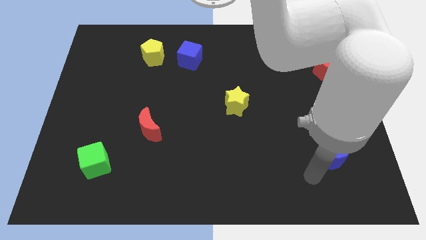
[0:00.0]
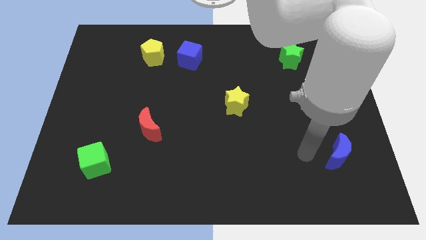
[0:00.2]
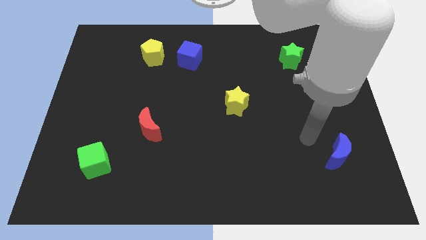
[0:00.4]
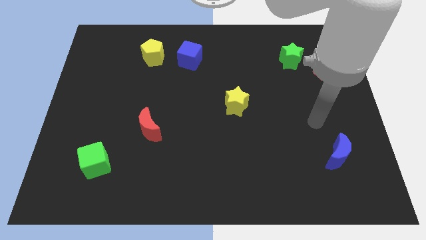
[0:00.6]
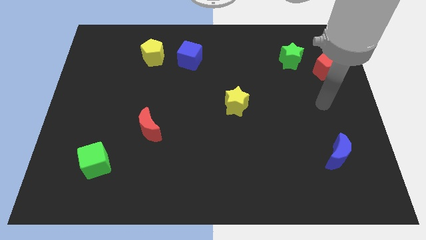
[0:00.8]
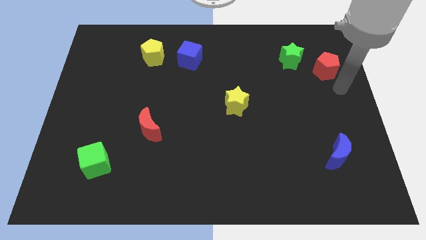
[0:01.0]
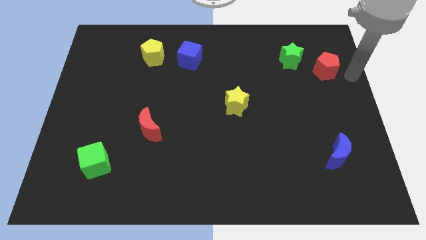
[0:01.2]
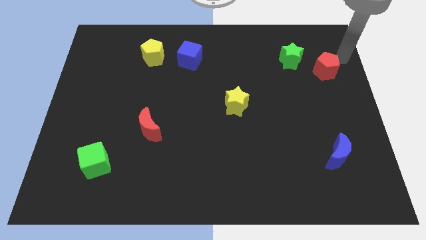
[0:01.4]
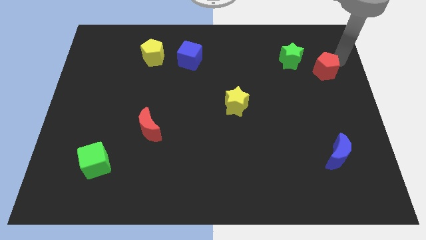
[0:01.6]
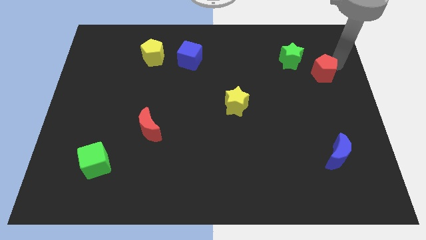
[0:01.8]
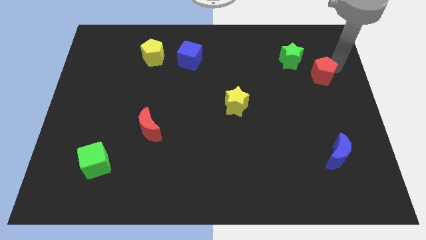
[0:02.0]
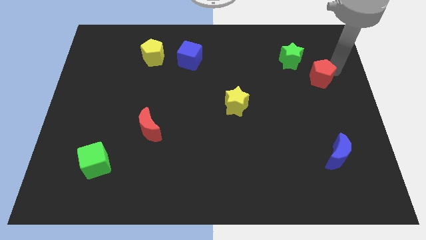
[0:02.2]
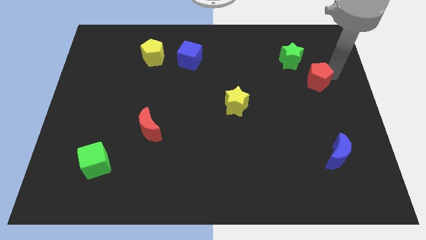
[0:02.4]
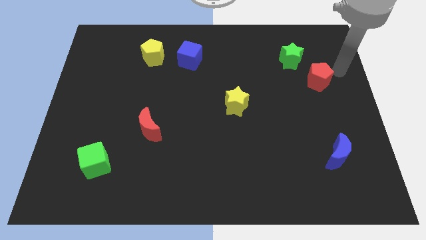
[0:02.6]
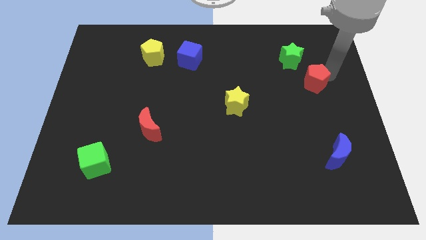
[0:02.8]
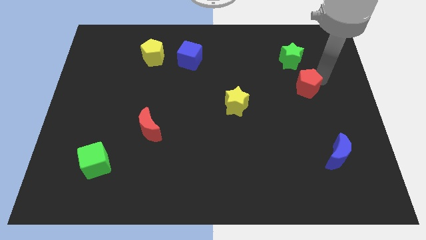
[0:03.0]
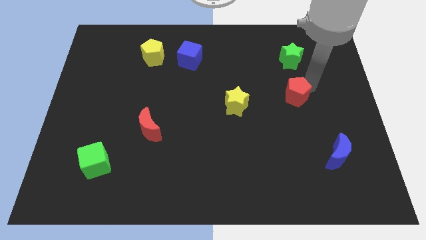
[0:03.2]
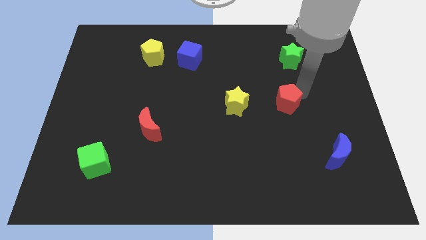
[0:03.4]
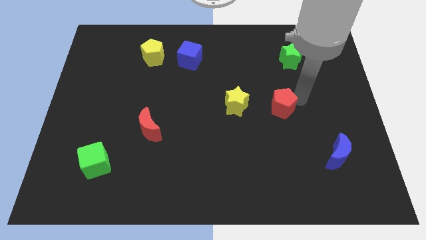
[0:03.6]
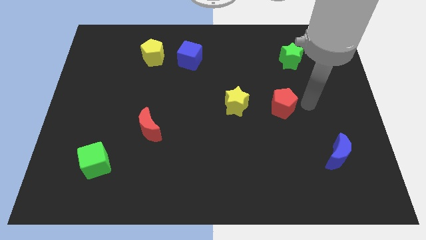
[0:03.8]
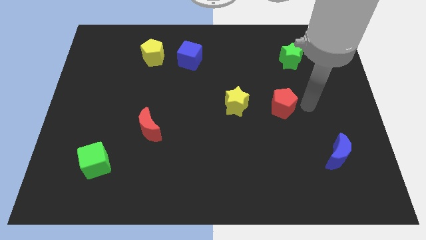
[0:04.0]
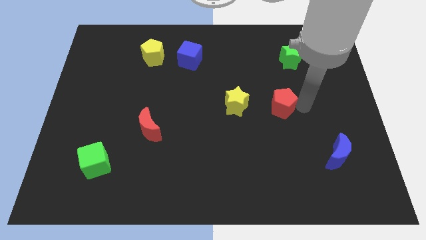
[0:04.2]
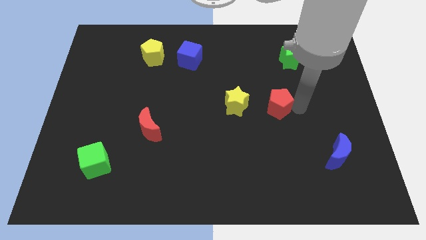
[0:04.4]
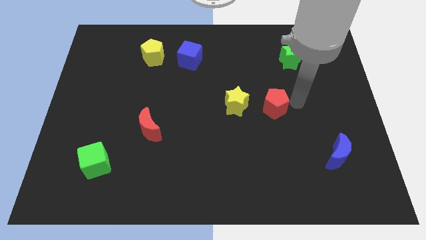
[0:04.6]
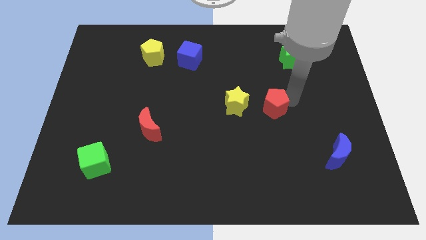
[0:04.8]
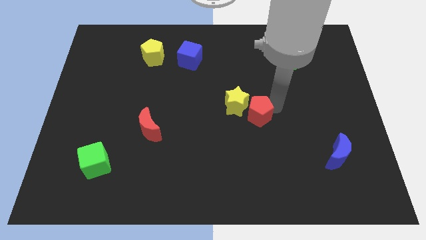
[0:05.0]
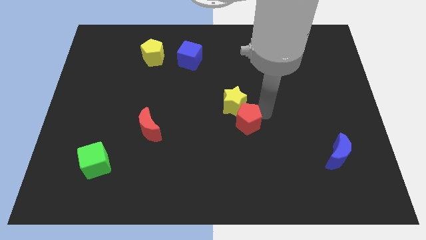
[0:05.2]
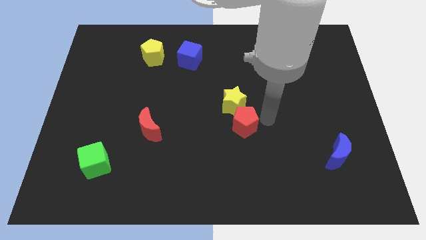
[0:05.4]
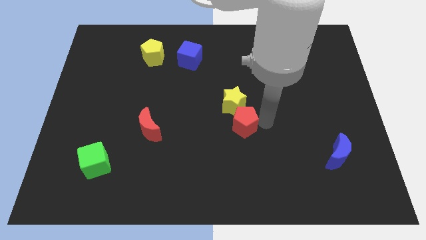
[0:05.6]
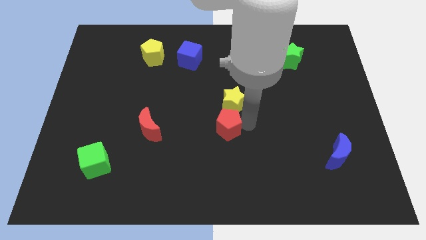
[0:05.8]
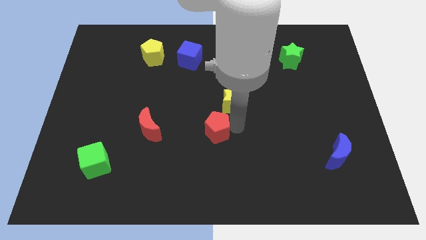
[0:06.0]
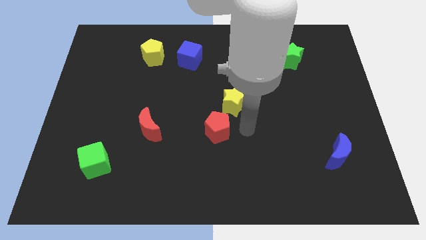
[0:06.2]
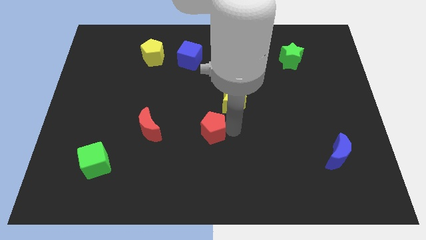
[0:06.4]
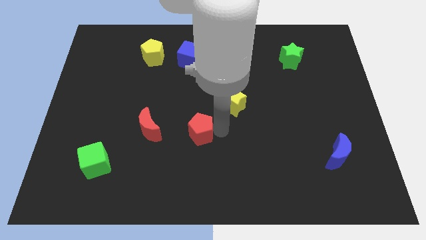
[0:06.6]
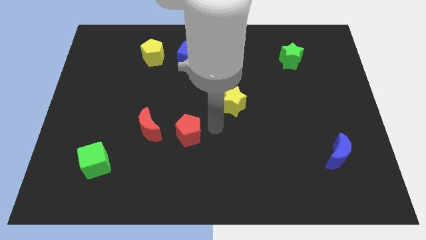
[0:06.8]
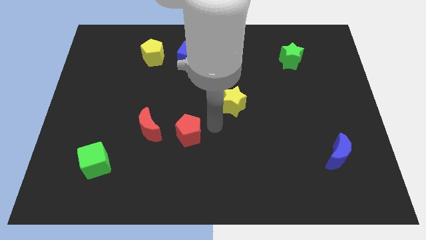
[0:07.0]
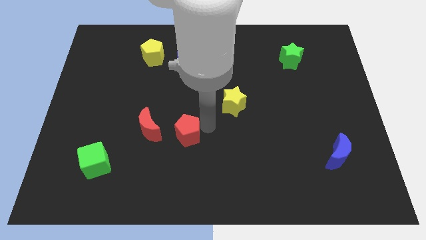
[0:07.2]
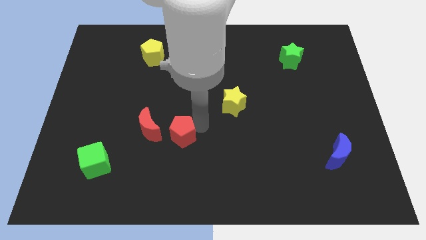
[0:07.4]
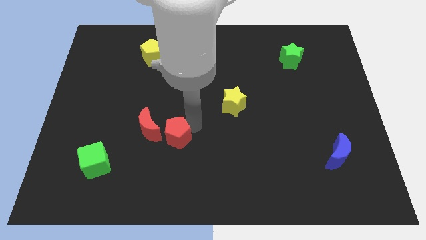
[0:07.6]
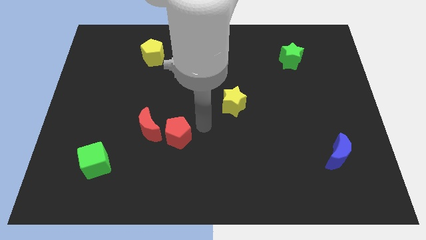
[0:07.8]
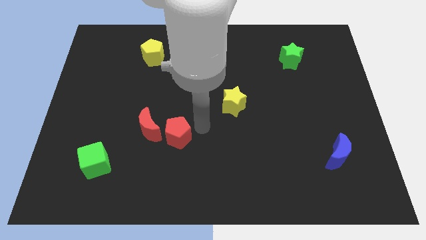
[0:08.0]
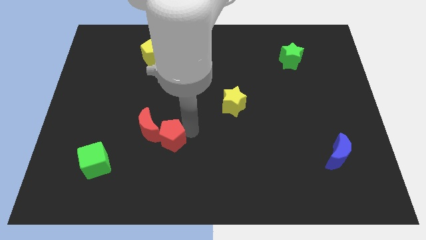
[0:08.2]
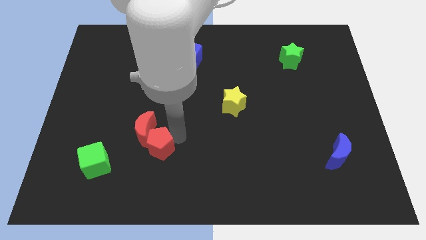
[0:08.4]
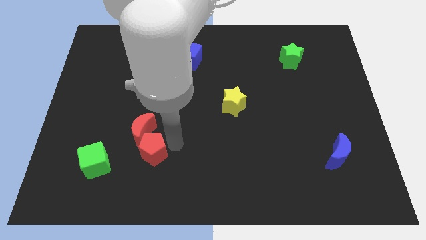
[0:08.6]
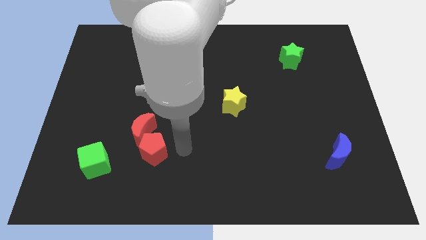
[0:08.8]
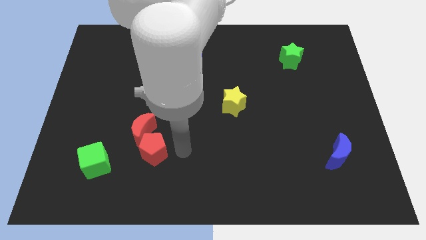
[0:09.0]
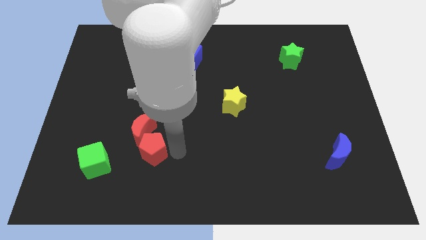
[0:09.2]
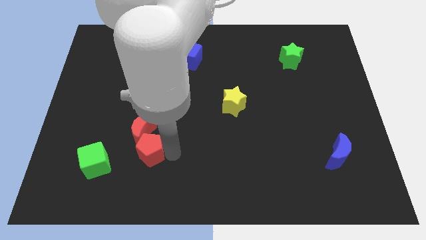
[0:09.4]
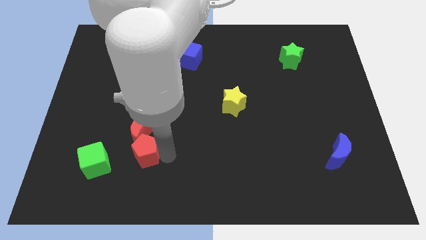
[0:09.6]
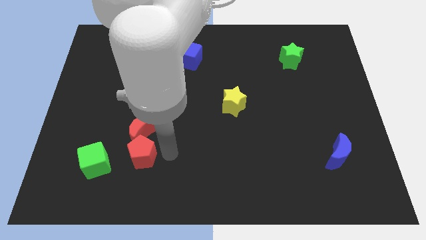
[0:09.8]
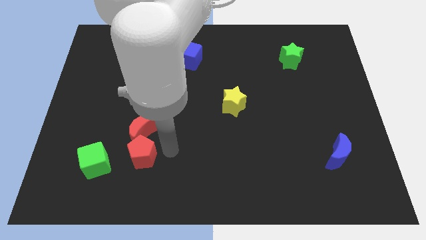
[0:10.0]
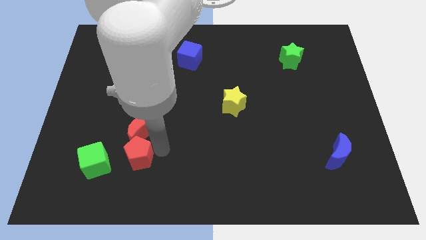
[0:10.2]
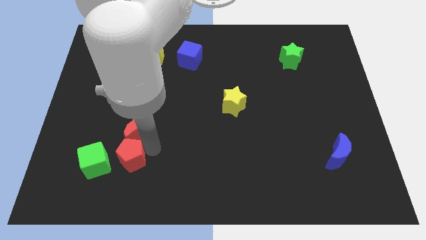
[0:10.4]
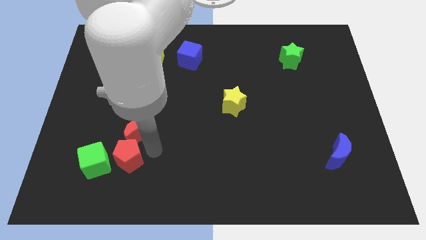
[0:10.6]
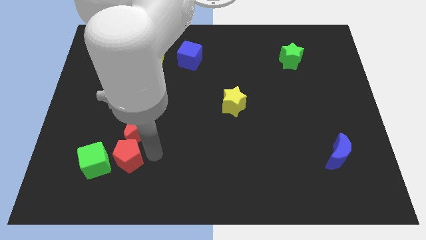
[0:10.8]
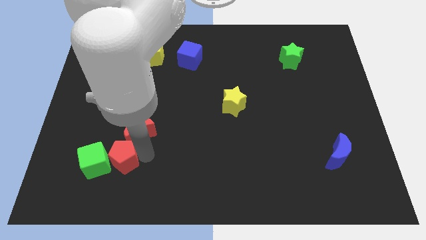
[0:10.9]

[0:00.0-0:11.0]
move the red pentagon close to the green cube

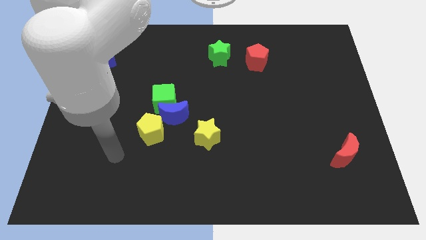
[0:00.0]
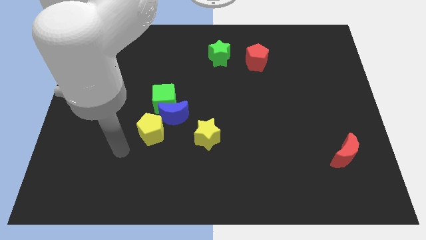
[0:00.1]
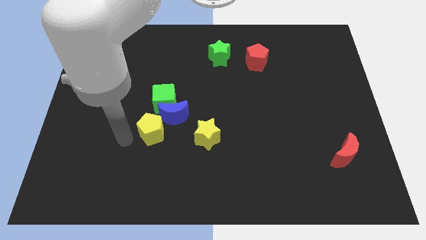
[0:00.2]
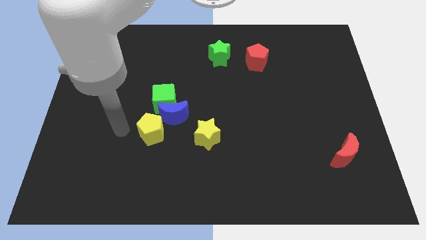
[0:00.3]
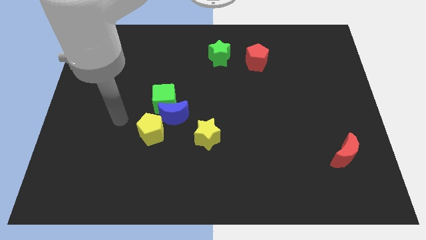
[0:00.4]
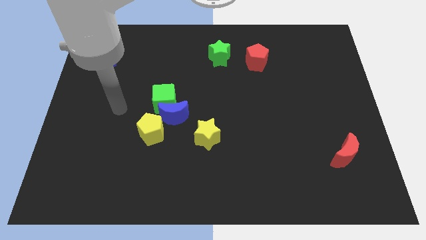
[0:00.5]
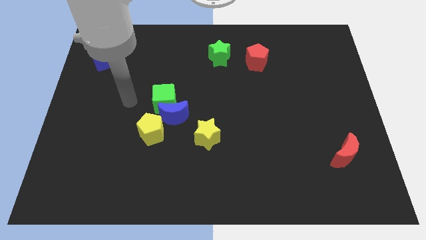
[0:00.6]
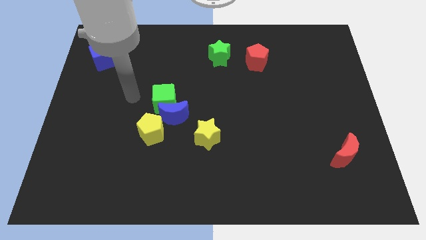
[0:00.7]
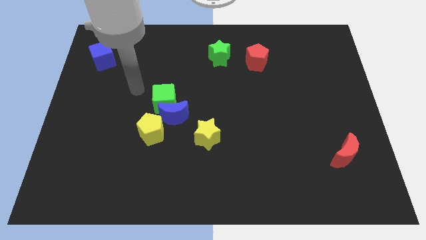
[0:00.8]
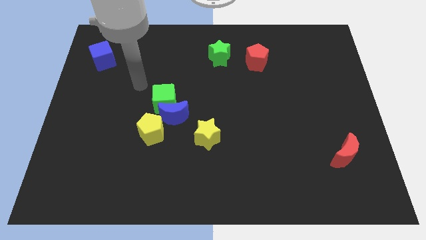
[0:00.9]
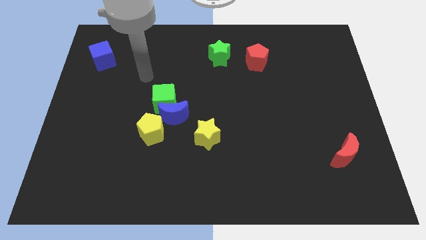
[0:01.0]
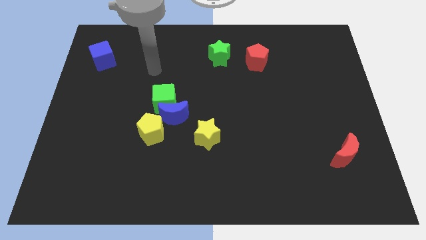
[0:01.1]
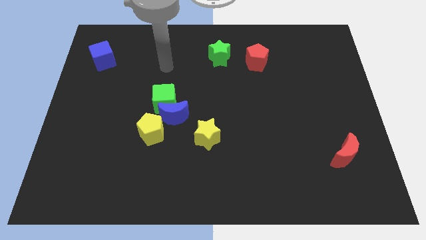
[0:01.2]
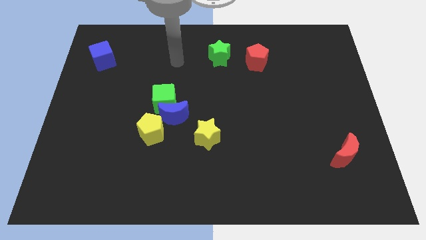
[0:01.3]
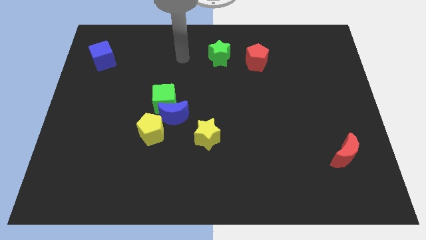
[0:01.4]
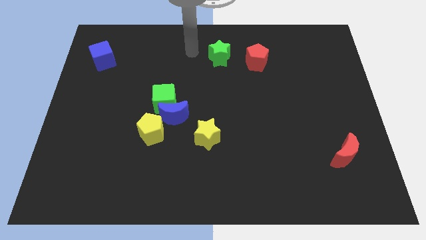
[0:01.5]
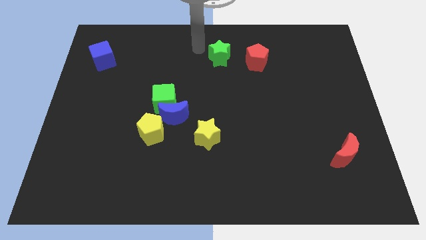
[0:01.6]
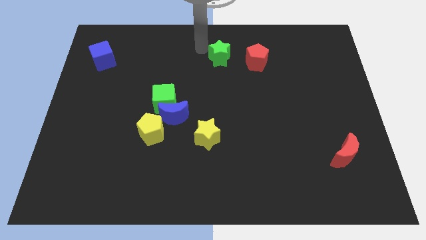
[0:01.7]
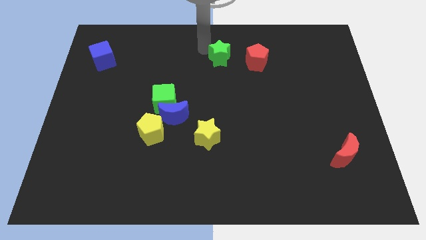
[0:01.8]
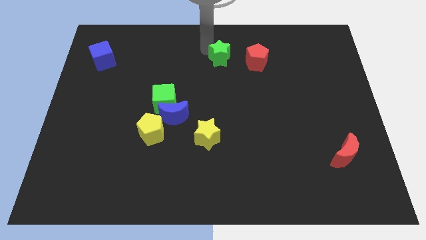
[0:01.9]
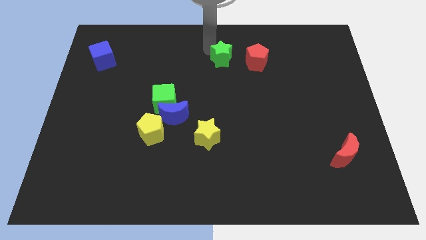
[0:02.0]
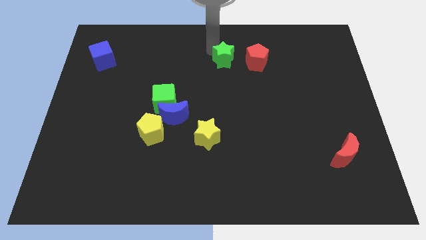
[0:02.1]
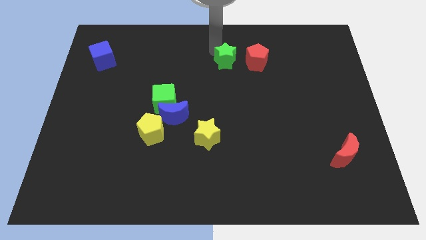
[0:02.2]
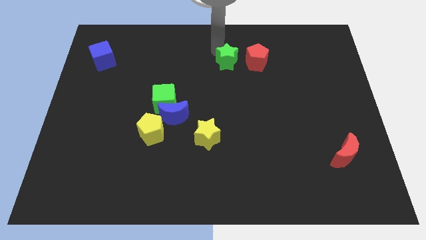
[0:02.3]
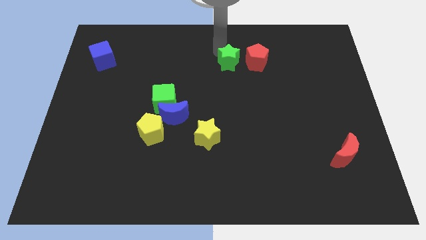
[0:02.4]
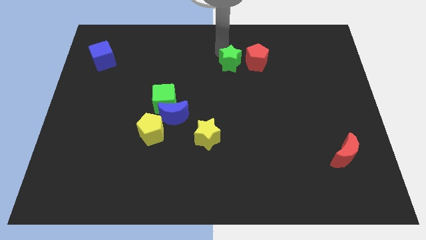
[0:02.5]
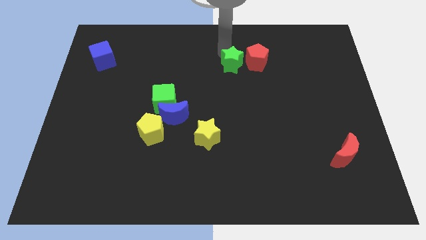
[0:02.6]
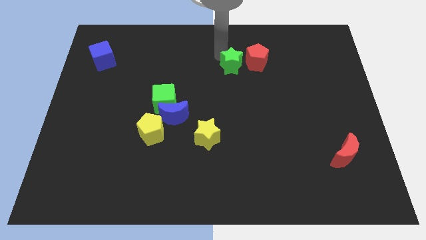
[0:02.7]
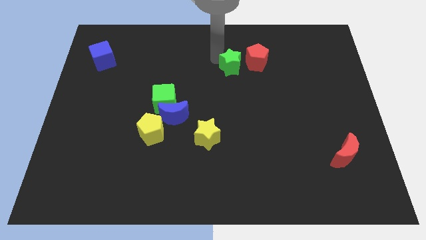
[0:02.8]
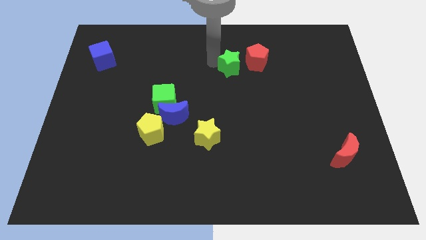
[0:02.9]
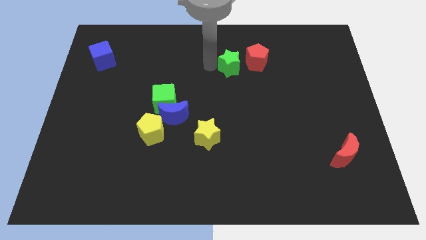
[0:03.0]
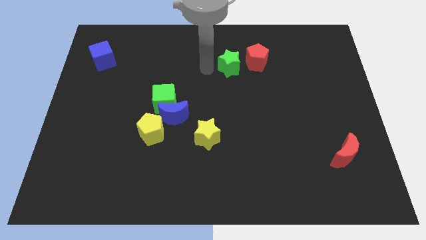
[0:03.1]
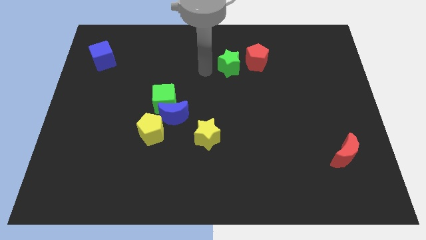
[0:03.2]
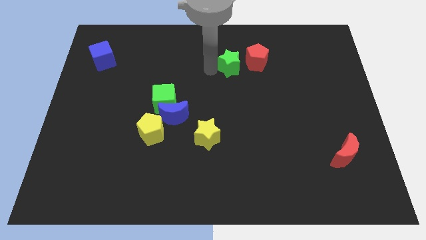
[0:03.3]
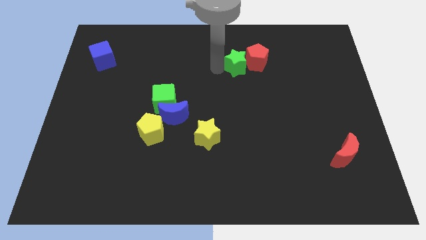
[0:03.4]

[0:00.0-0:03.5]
put the green star close to the red pentagon
